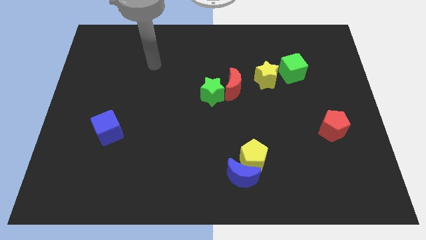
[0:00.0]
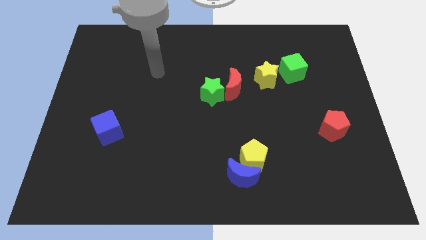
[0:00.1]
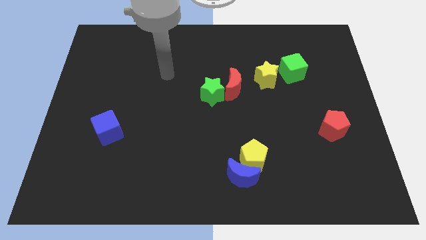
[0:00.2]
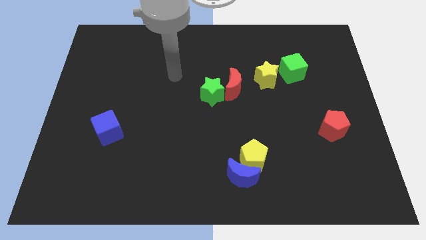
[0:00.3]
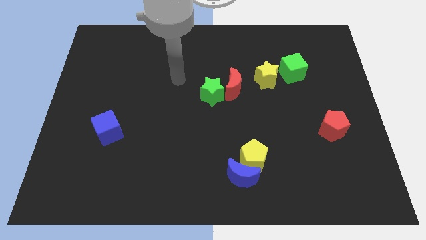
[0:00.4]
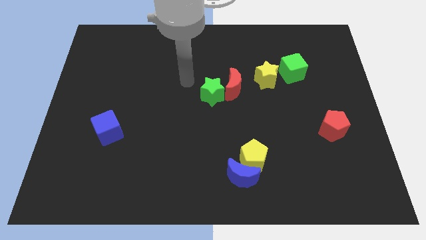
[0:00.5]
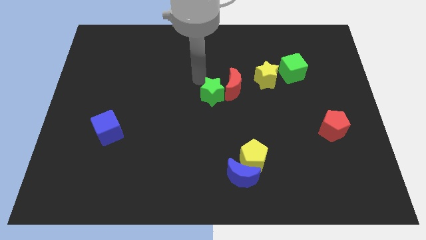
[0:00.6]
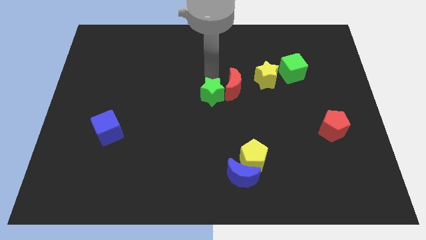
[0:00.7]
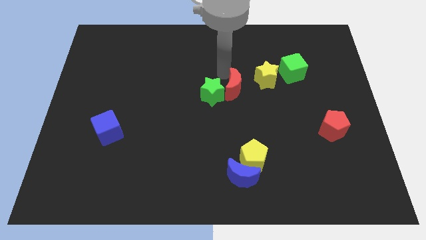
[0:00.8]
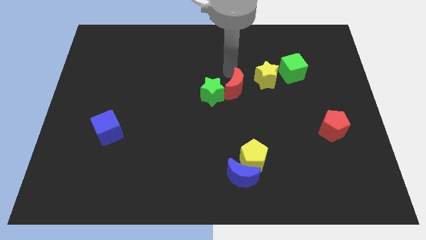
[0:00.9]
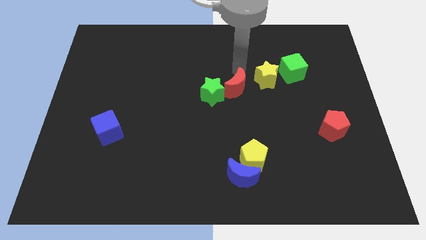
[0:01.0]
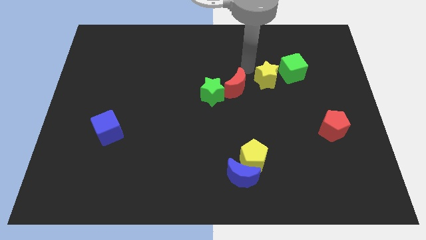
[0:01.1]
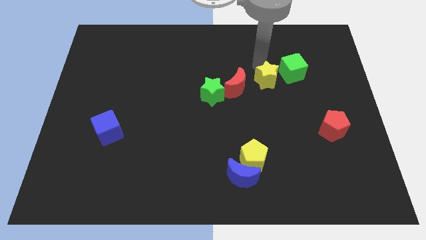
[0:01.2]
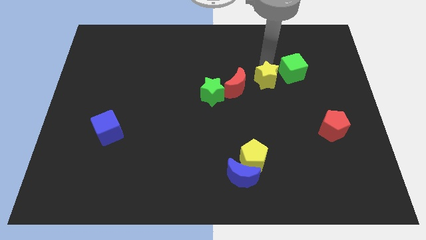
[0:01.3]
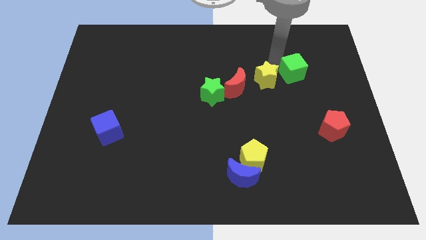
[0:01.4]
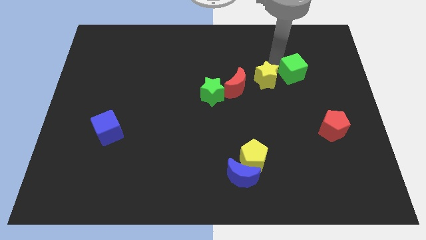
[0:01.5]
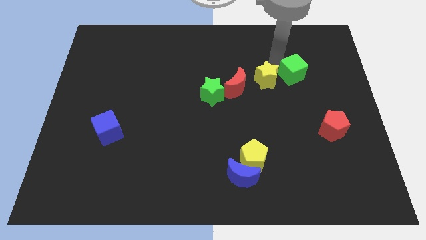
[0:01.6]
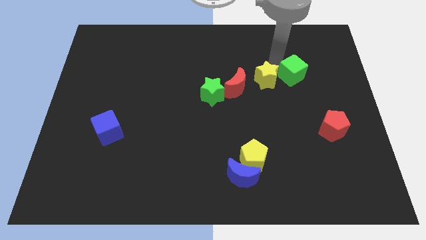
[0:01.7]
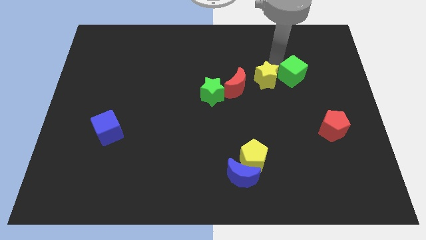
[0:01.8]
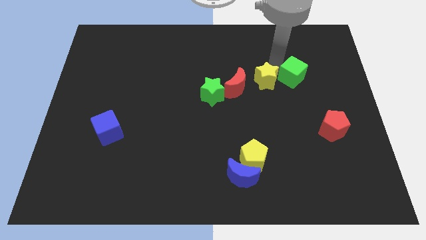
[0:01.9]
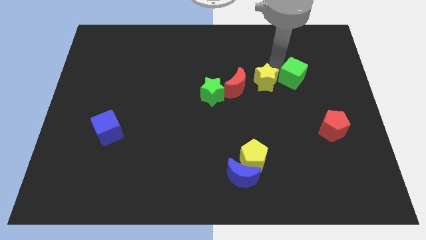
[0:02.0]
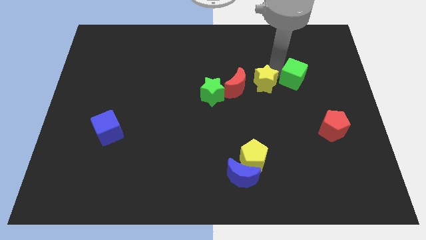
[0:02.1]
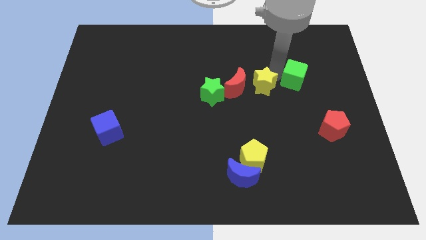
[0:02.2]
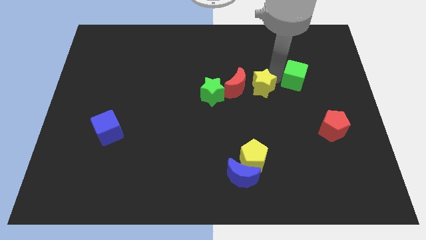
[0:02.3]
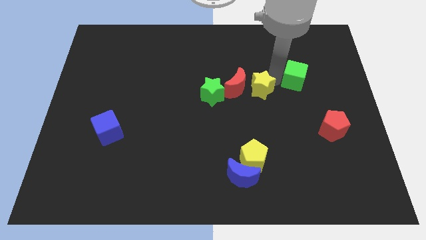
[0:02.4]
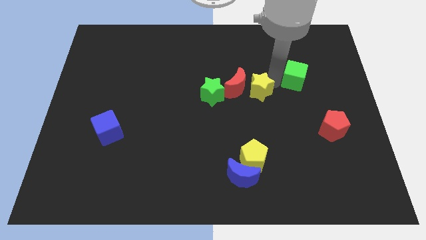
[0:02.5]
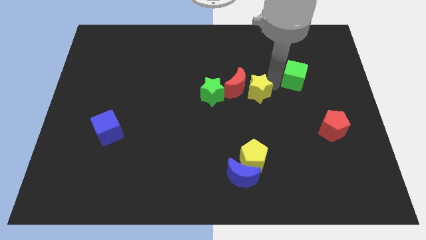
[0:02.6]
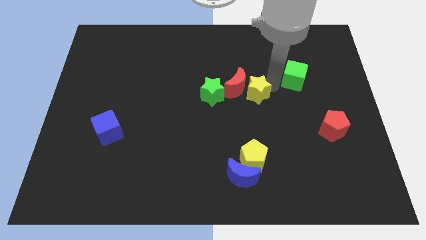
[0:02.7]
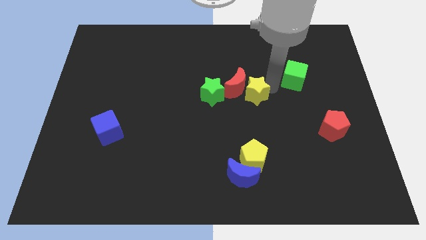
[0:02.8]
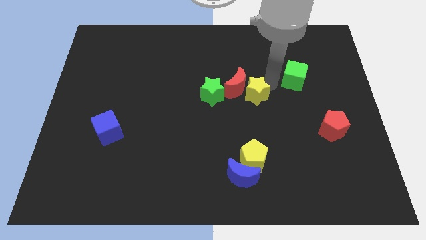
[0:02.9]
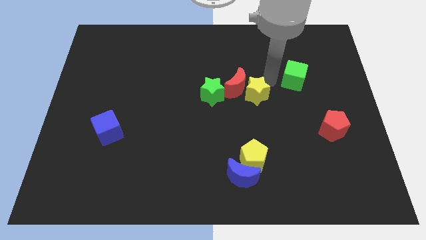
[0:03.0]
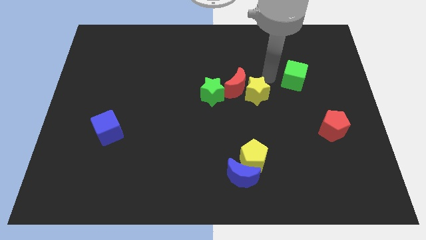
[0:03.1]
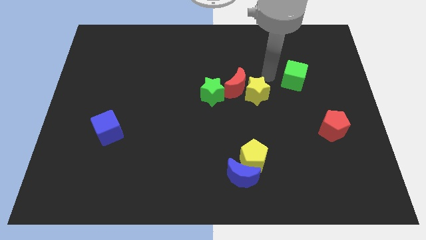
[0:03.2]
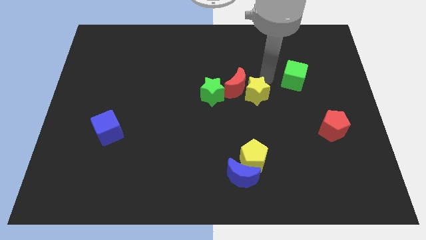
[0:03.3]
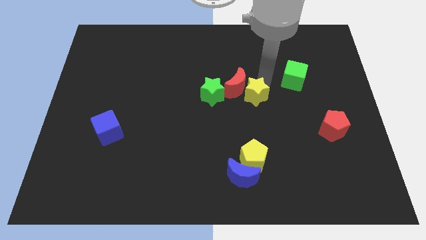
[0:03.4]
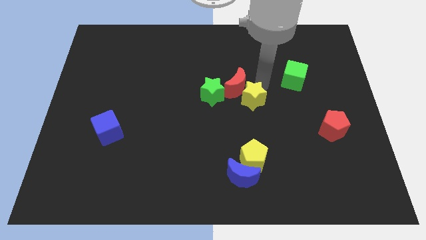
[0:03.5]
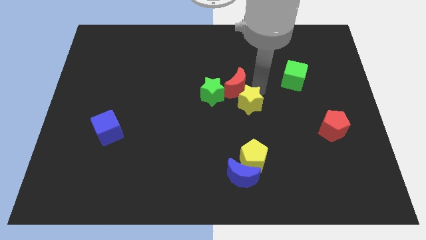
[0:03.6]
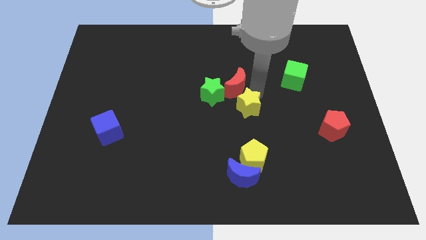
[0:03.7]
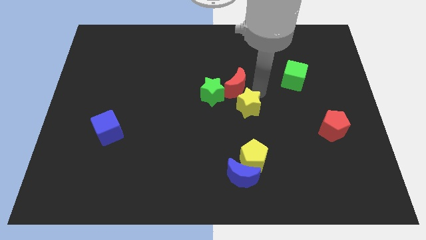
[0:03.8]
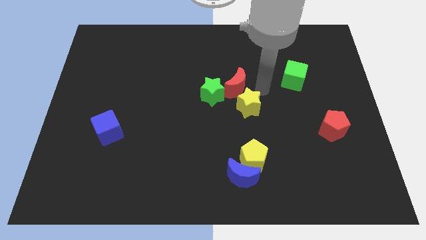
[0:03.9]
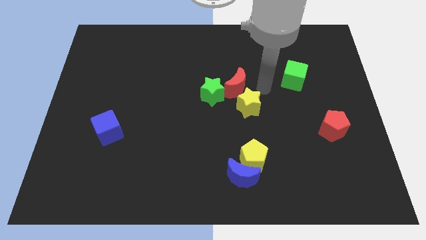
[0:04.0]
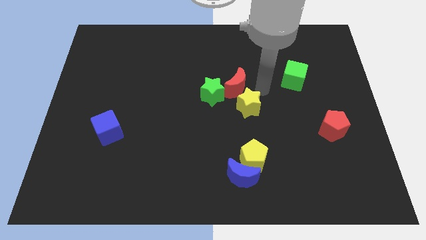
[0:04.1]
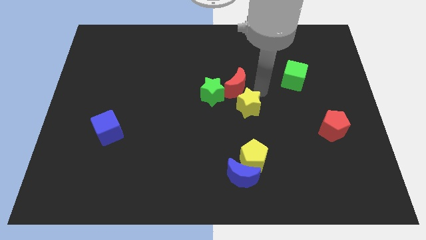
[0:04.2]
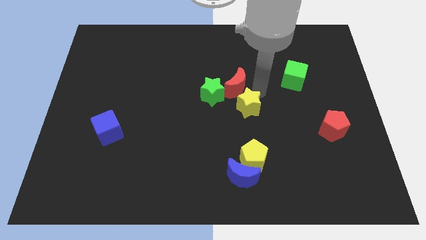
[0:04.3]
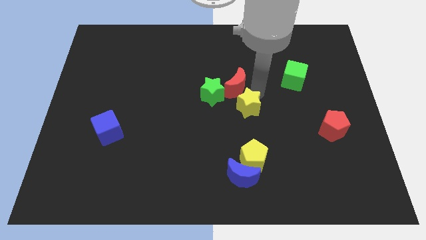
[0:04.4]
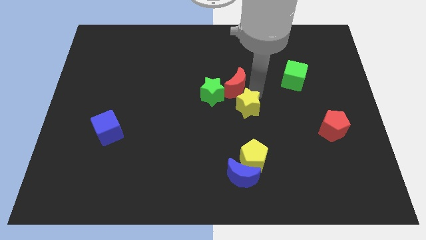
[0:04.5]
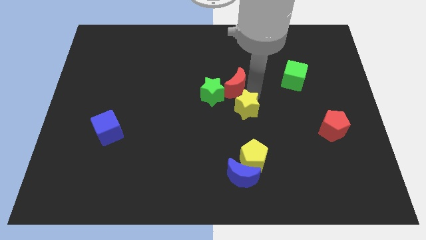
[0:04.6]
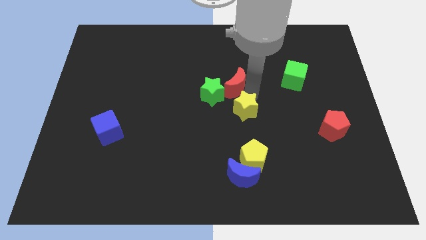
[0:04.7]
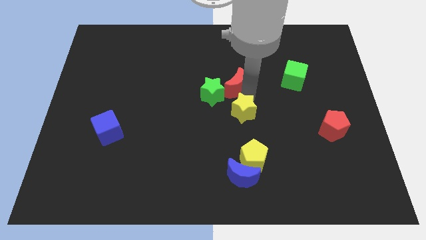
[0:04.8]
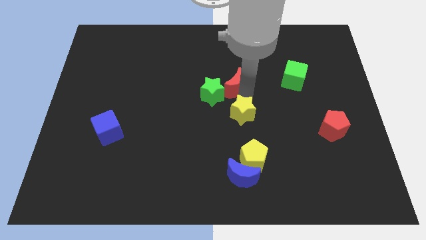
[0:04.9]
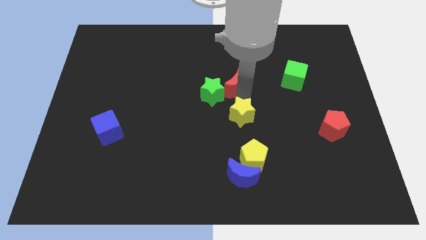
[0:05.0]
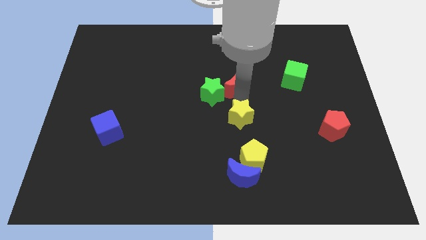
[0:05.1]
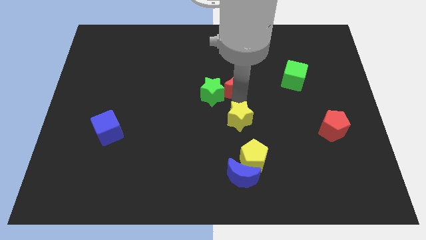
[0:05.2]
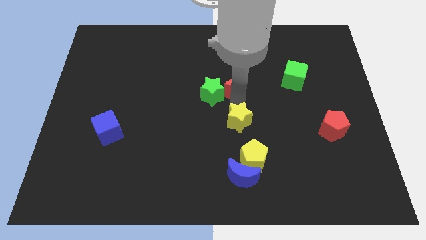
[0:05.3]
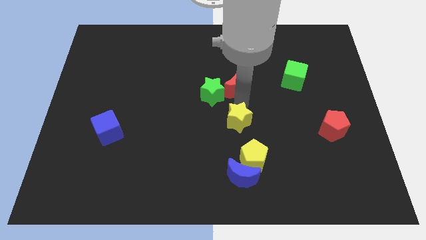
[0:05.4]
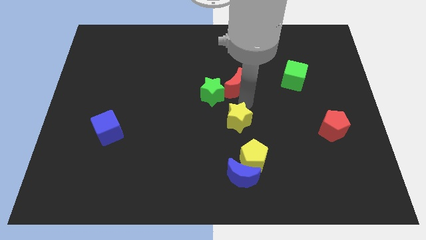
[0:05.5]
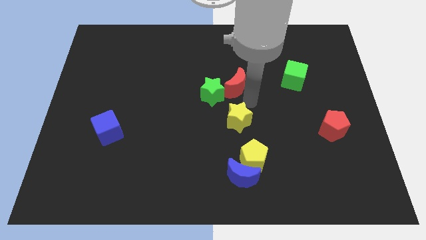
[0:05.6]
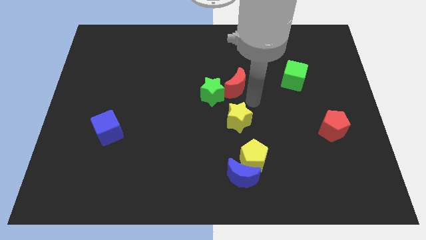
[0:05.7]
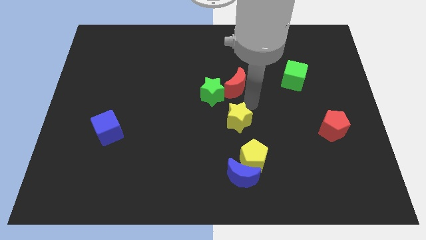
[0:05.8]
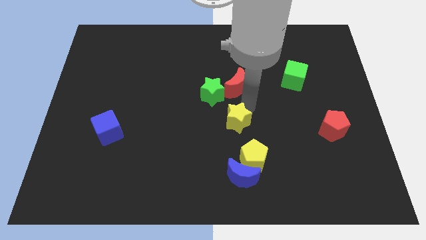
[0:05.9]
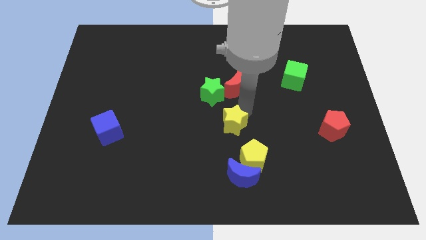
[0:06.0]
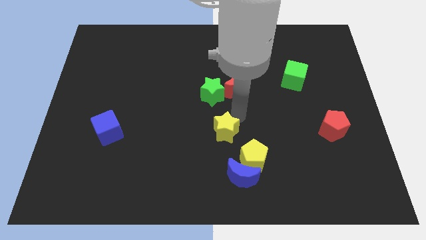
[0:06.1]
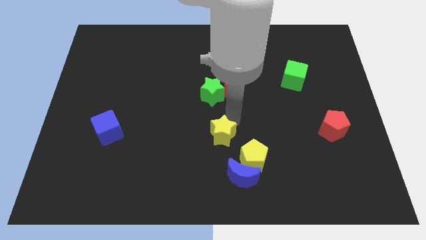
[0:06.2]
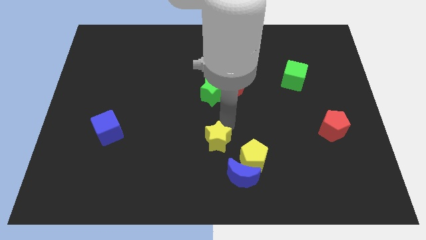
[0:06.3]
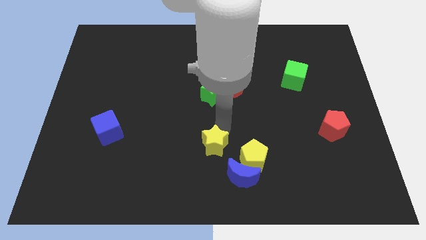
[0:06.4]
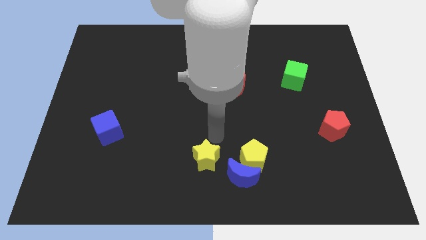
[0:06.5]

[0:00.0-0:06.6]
slide the yellow star to the bottom
